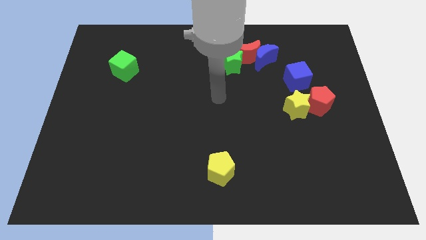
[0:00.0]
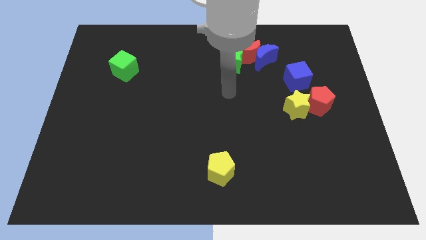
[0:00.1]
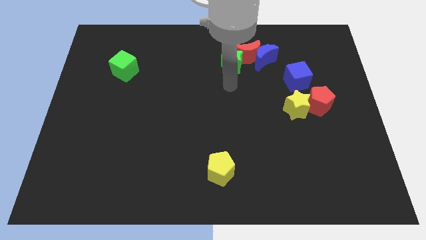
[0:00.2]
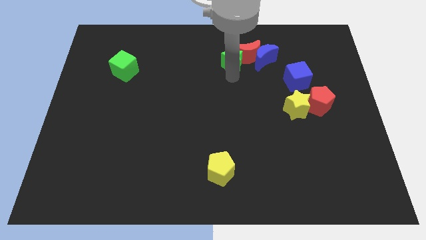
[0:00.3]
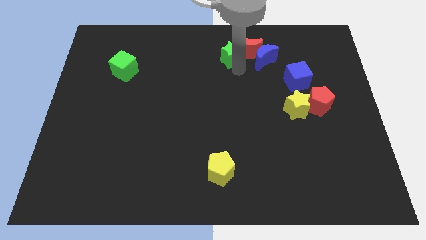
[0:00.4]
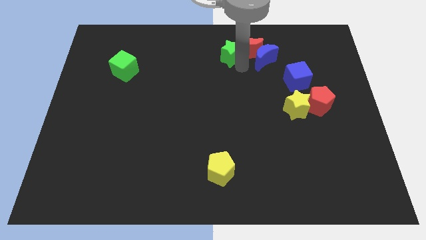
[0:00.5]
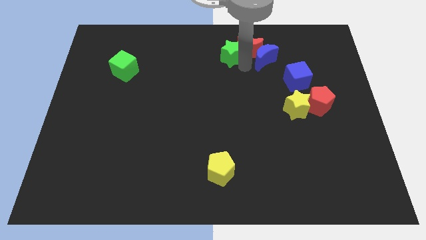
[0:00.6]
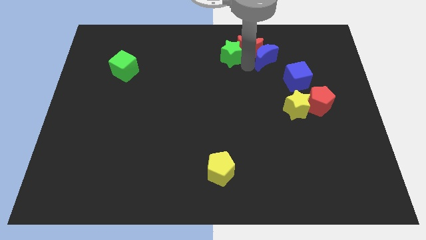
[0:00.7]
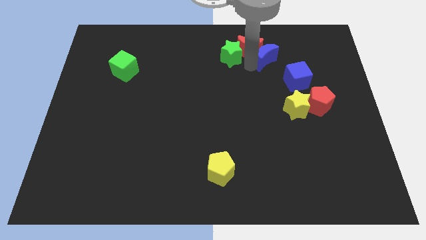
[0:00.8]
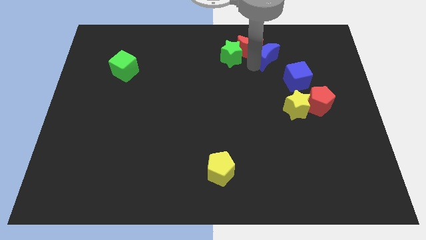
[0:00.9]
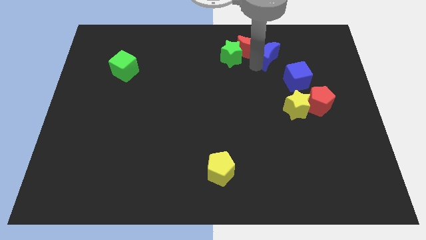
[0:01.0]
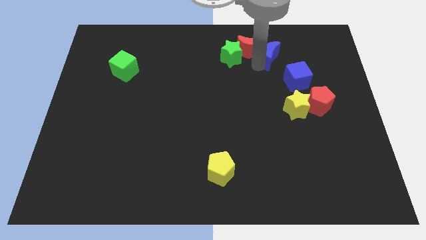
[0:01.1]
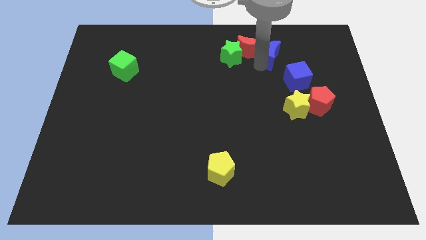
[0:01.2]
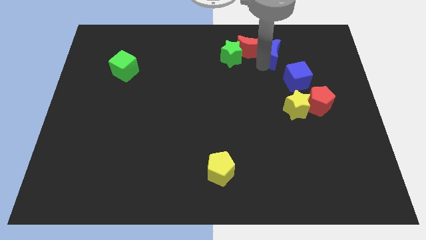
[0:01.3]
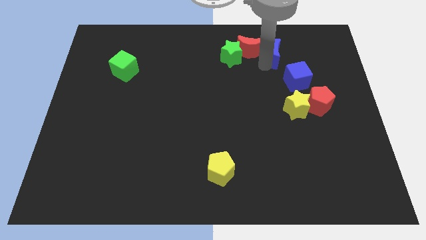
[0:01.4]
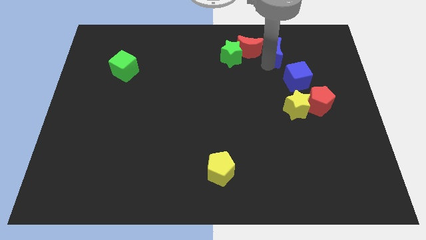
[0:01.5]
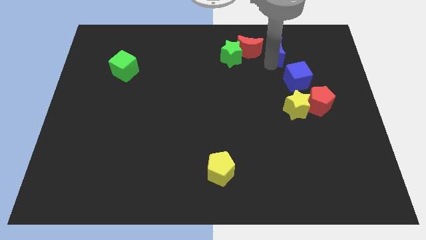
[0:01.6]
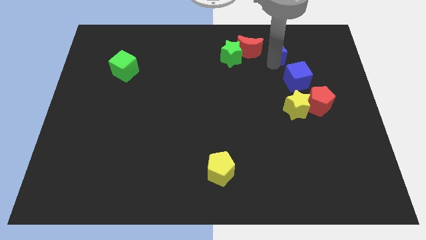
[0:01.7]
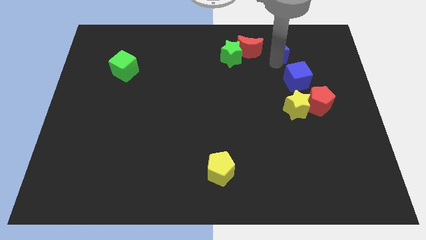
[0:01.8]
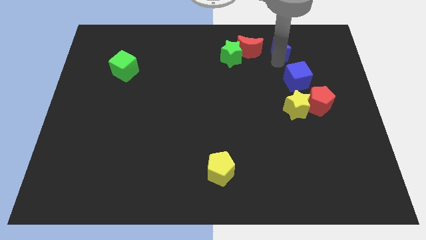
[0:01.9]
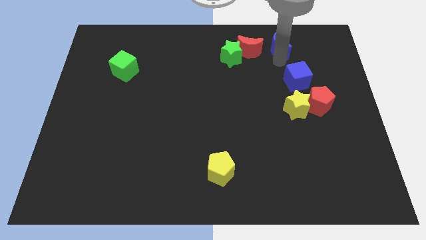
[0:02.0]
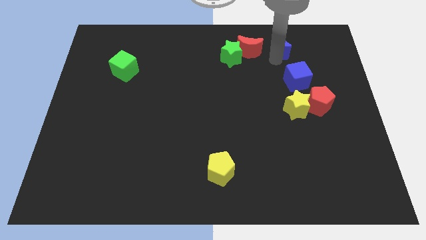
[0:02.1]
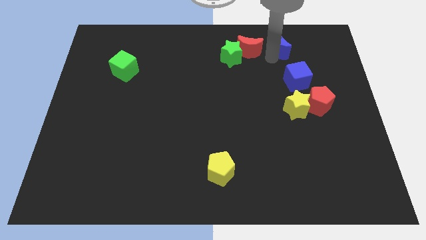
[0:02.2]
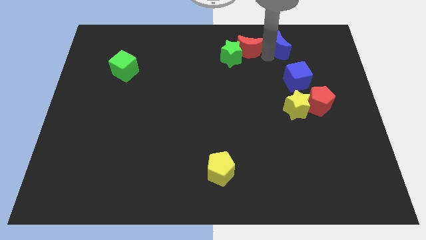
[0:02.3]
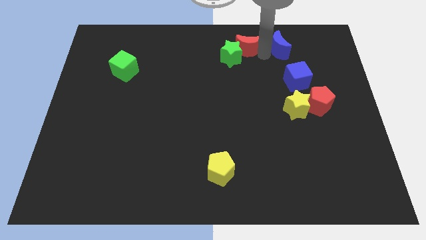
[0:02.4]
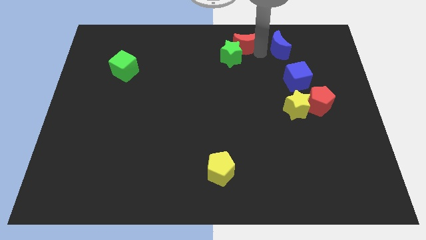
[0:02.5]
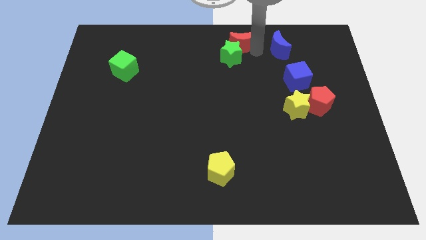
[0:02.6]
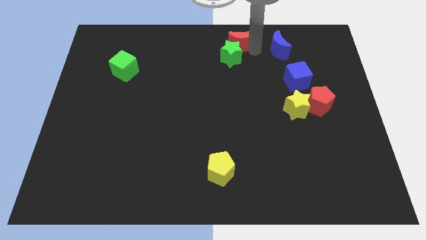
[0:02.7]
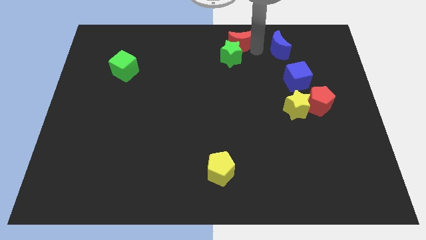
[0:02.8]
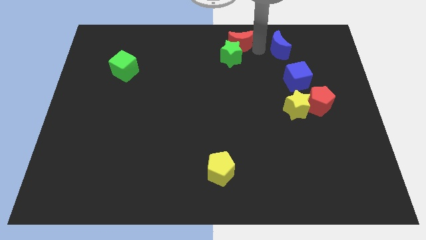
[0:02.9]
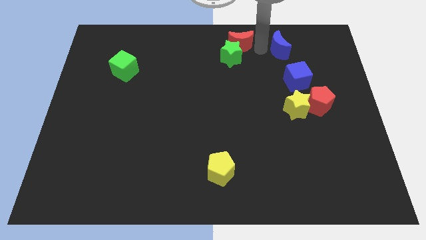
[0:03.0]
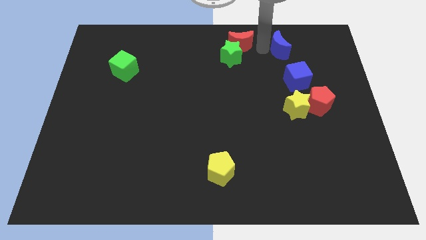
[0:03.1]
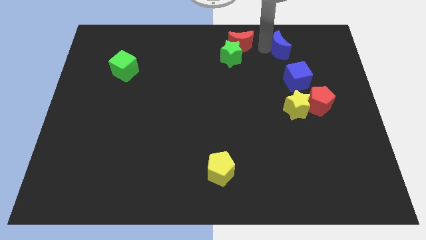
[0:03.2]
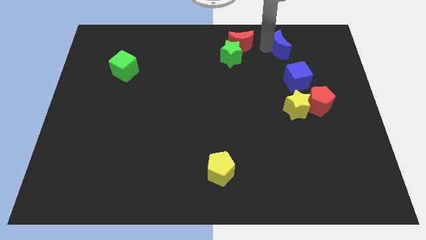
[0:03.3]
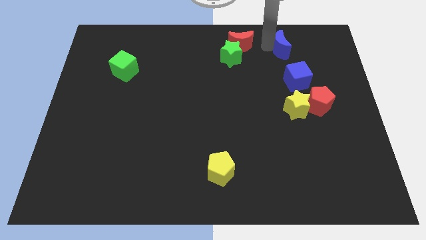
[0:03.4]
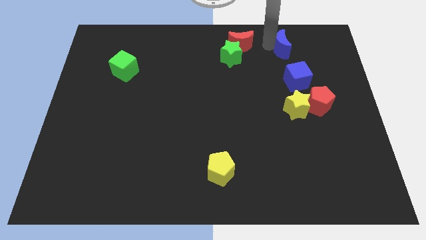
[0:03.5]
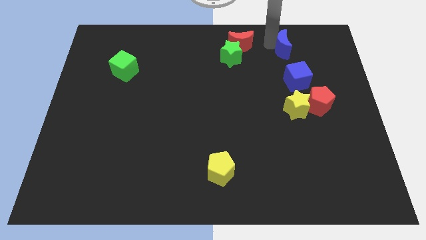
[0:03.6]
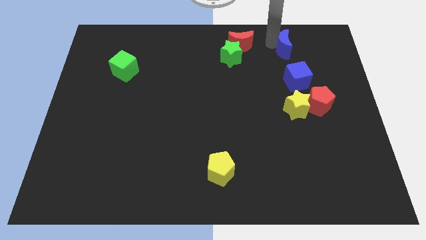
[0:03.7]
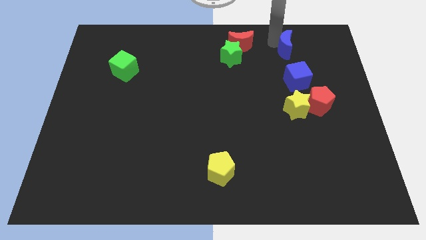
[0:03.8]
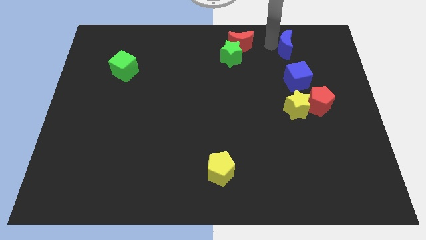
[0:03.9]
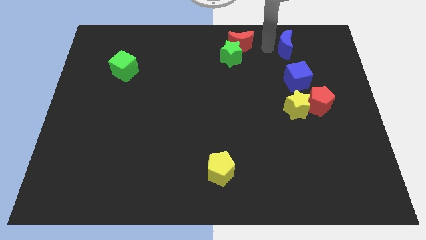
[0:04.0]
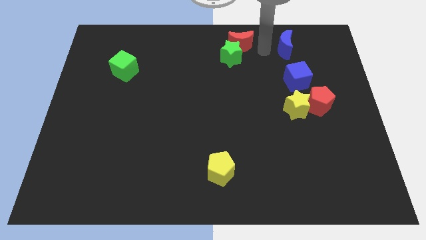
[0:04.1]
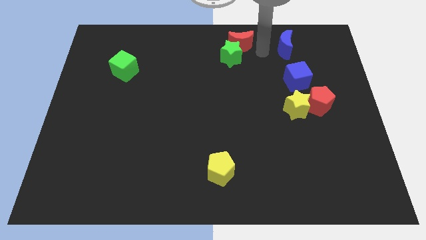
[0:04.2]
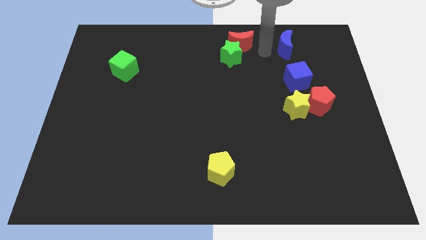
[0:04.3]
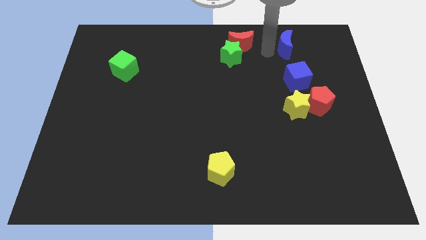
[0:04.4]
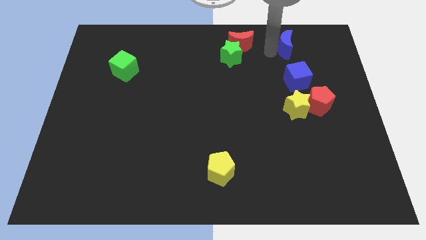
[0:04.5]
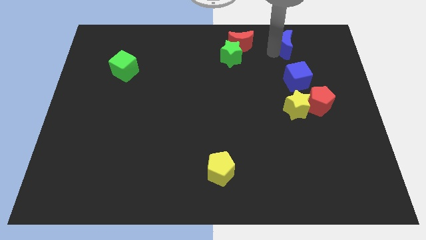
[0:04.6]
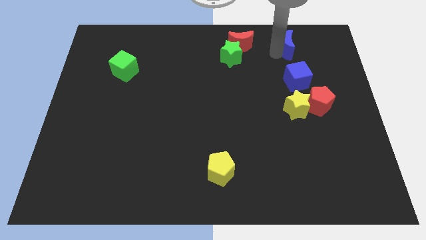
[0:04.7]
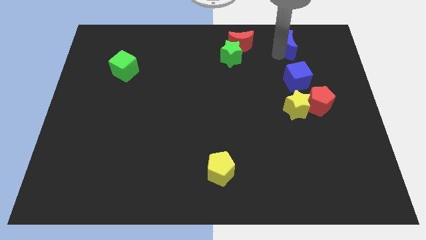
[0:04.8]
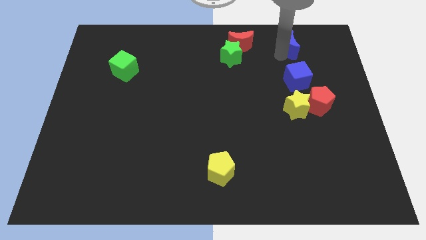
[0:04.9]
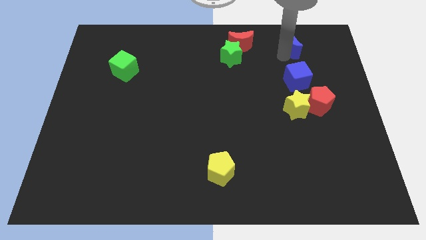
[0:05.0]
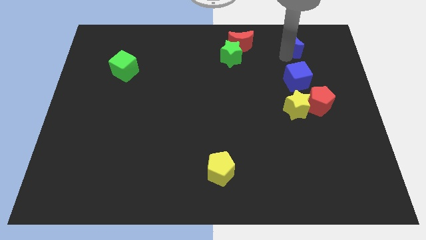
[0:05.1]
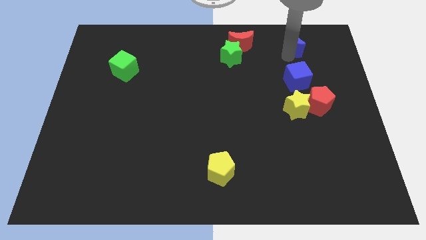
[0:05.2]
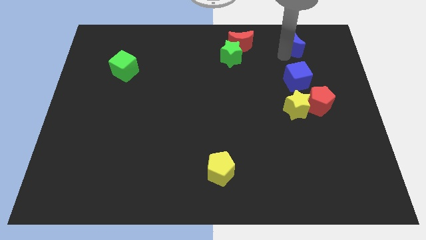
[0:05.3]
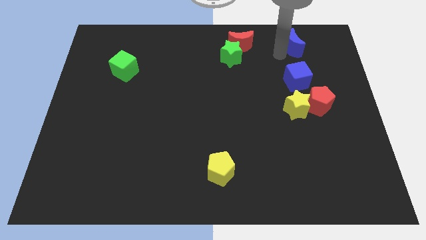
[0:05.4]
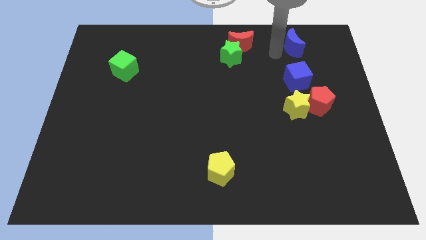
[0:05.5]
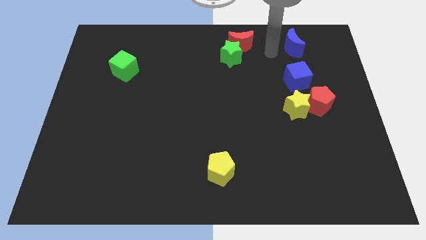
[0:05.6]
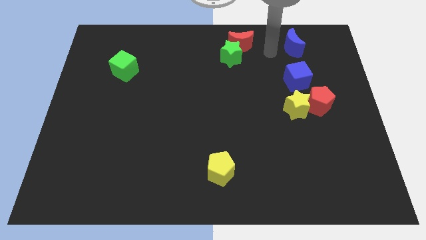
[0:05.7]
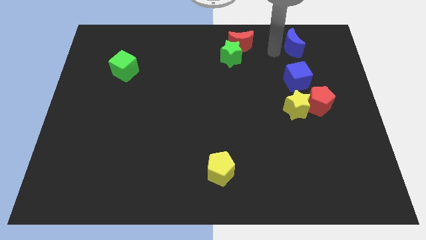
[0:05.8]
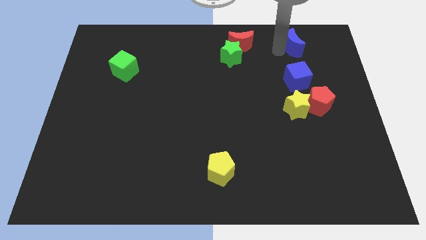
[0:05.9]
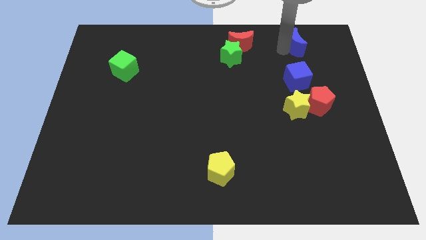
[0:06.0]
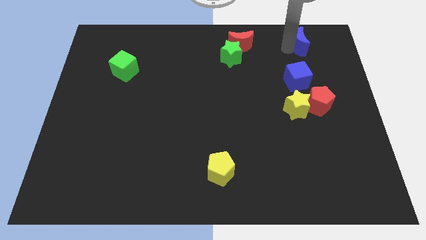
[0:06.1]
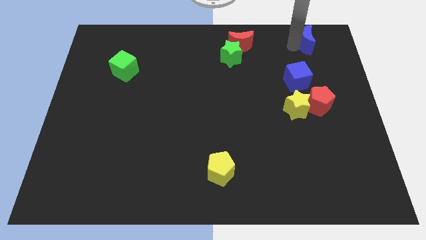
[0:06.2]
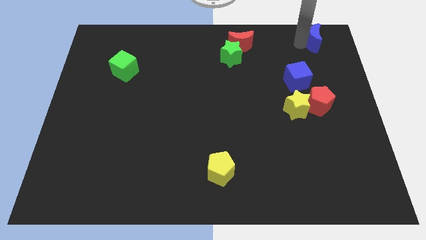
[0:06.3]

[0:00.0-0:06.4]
put the blue moon to the upper right corner

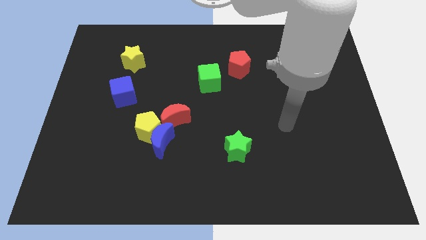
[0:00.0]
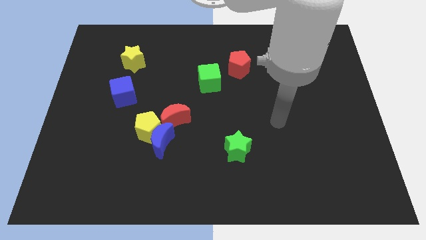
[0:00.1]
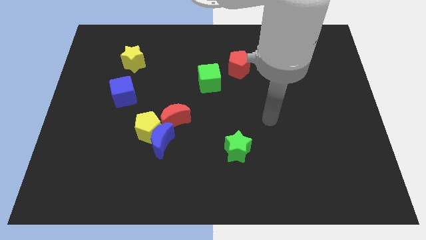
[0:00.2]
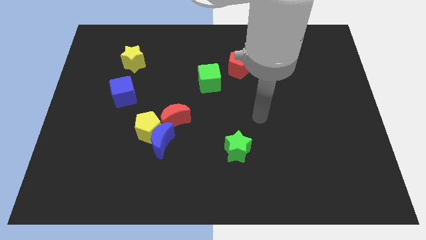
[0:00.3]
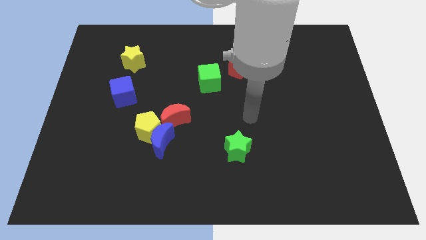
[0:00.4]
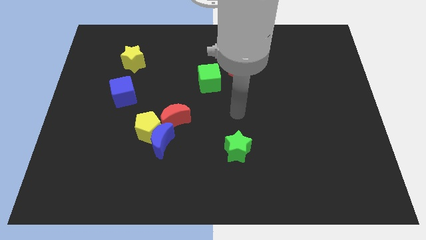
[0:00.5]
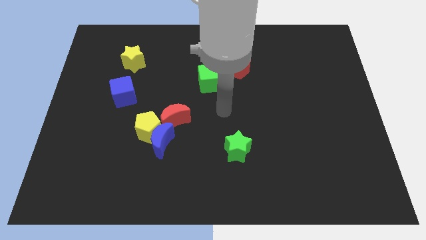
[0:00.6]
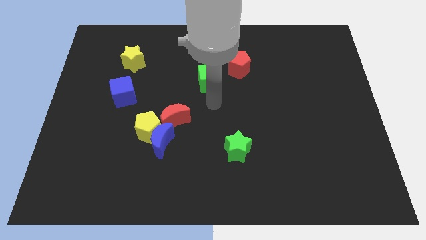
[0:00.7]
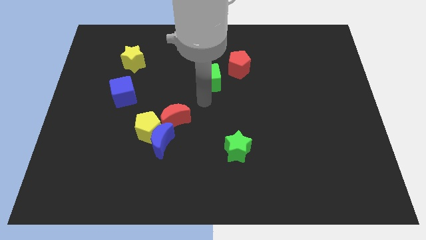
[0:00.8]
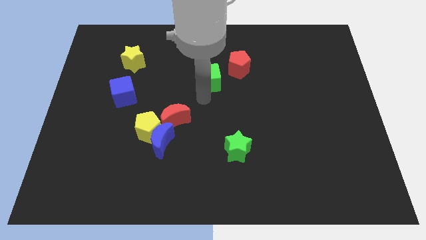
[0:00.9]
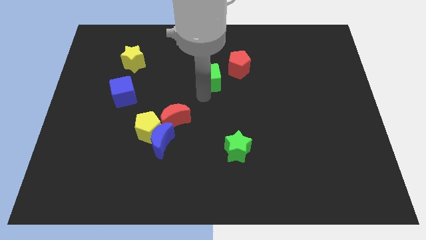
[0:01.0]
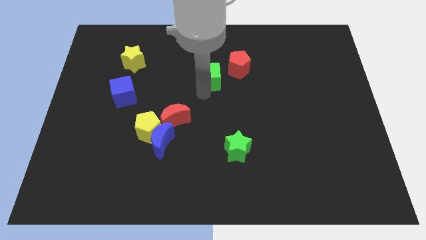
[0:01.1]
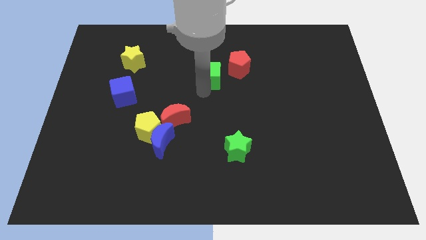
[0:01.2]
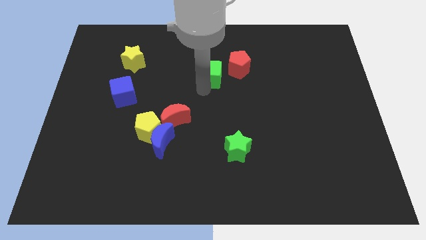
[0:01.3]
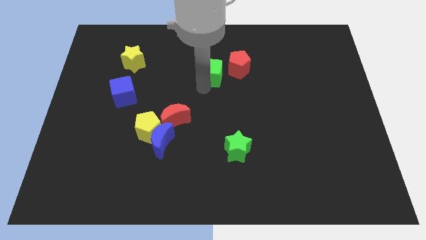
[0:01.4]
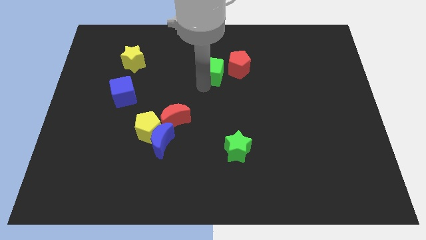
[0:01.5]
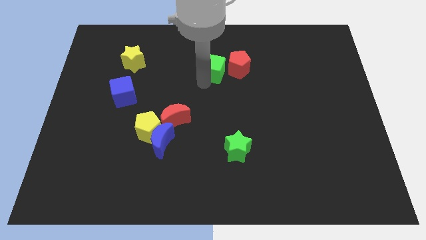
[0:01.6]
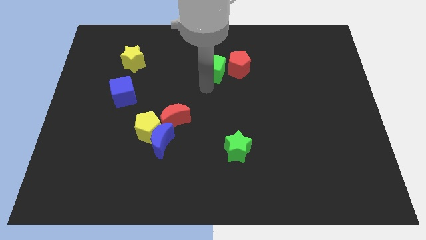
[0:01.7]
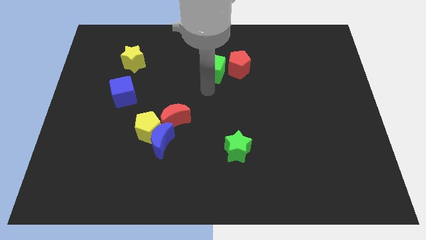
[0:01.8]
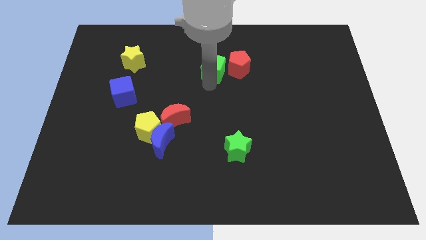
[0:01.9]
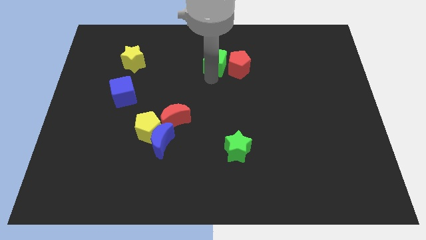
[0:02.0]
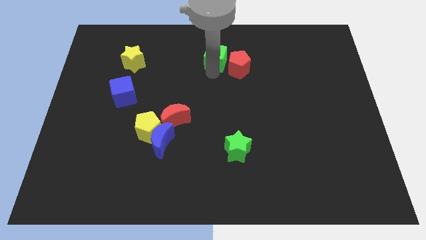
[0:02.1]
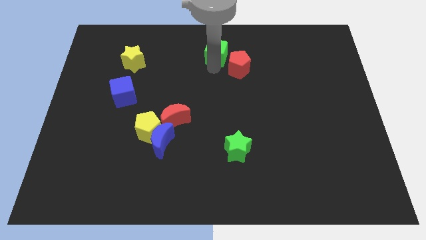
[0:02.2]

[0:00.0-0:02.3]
slide the green cube to the towards your base
